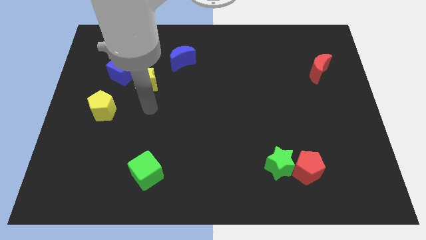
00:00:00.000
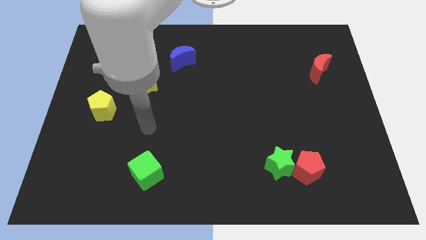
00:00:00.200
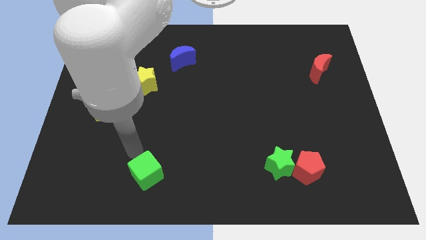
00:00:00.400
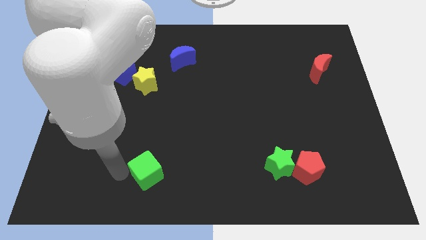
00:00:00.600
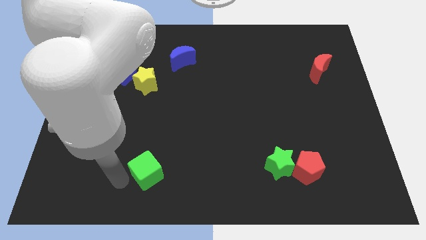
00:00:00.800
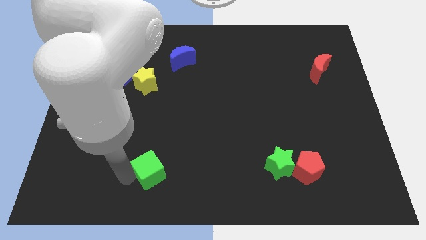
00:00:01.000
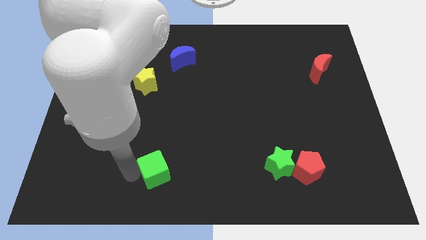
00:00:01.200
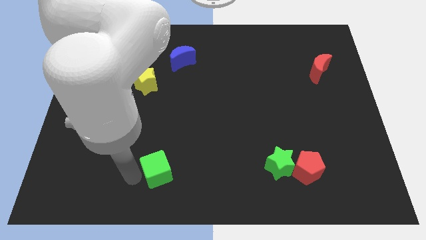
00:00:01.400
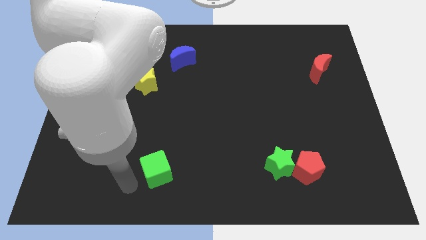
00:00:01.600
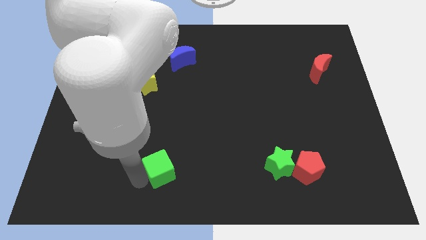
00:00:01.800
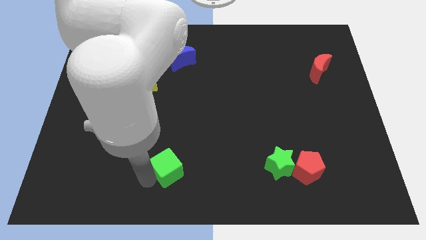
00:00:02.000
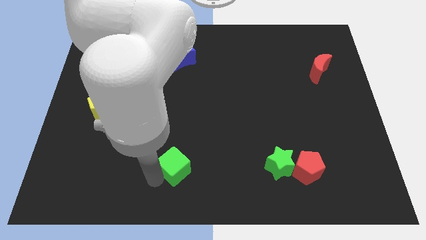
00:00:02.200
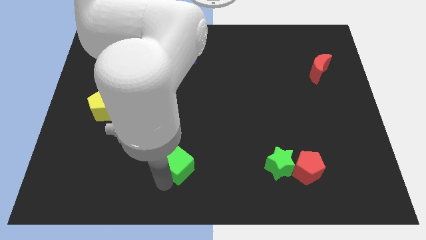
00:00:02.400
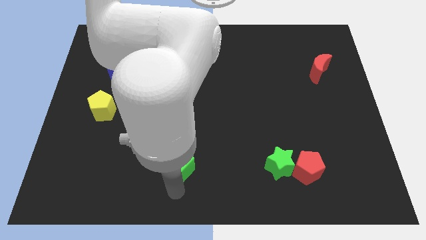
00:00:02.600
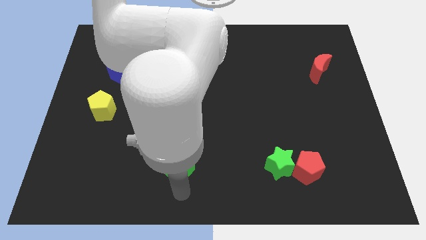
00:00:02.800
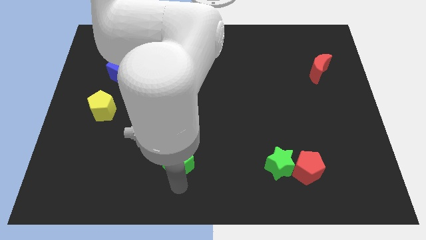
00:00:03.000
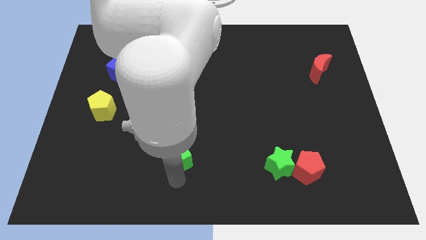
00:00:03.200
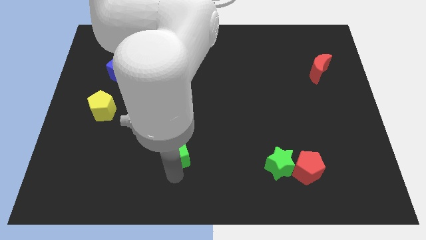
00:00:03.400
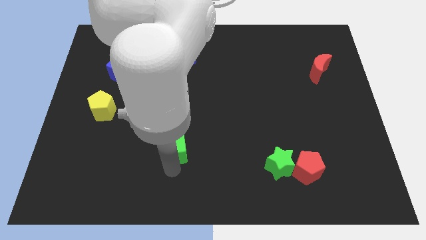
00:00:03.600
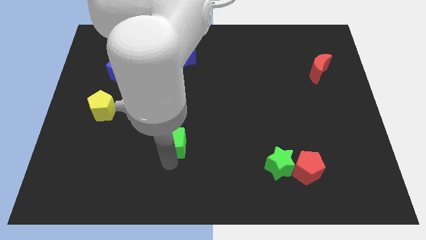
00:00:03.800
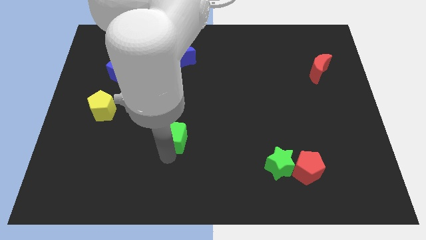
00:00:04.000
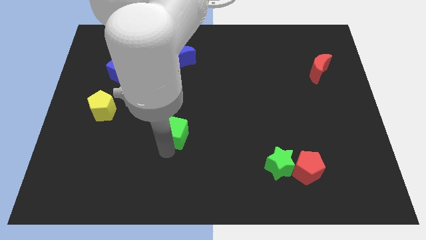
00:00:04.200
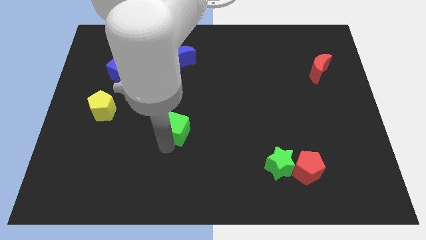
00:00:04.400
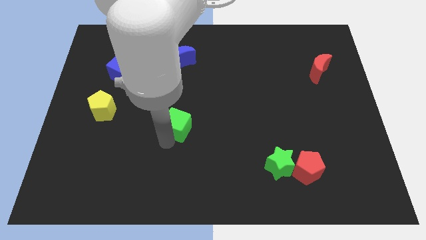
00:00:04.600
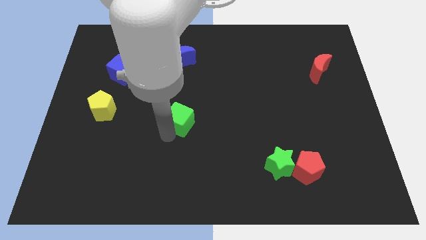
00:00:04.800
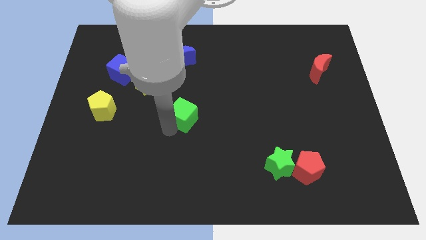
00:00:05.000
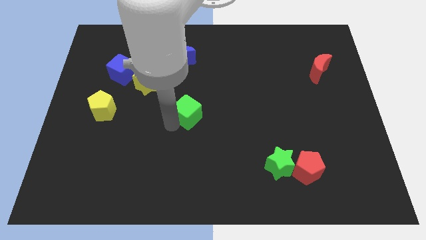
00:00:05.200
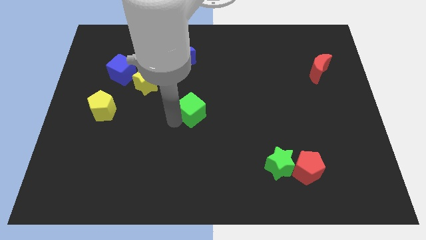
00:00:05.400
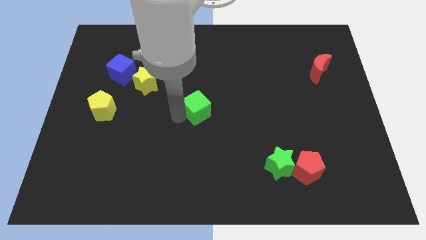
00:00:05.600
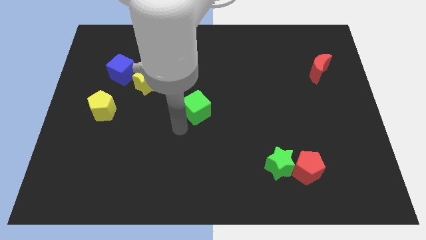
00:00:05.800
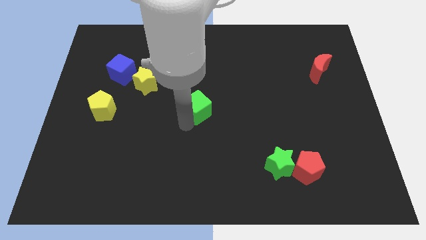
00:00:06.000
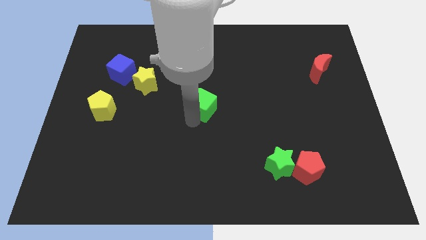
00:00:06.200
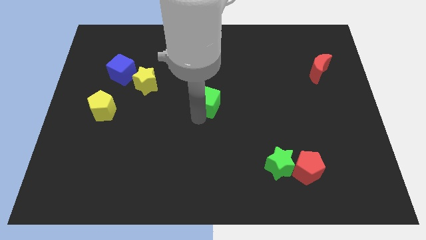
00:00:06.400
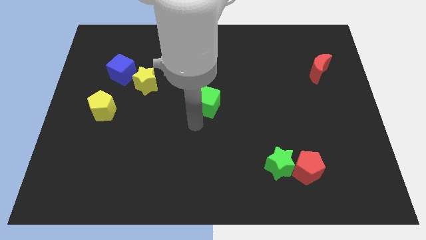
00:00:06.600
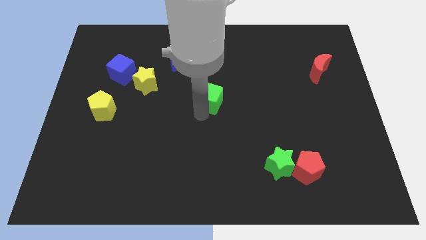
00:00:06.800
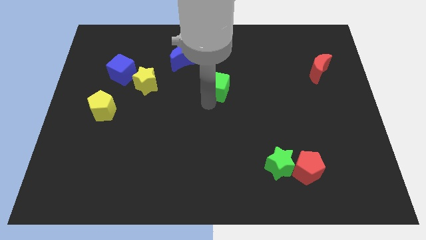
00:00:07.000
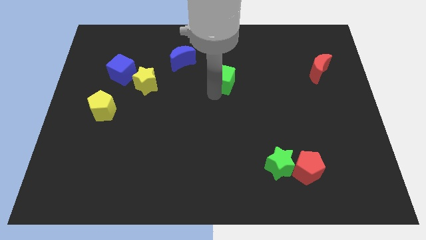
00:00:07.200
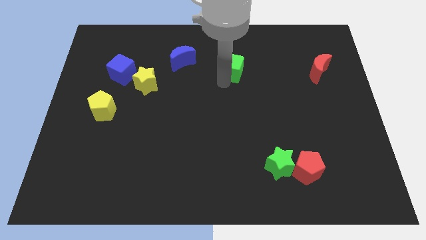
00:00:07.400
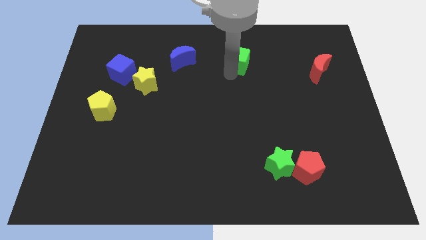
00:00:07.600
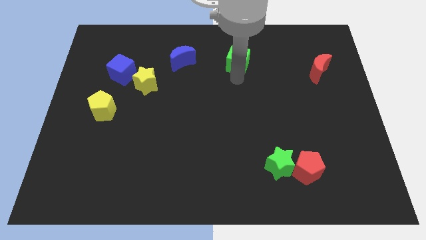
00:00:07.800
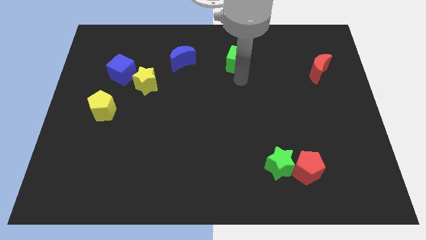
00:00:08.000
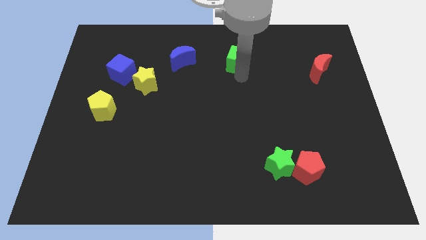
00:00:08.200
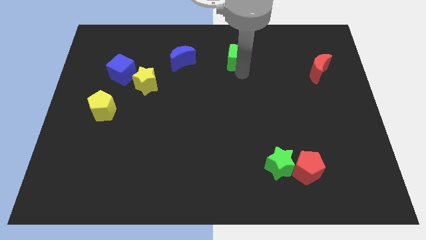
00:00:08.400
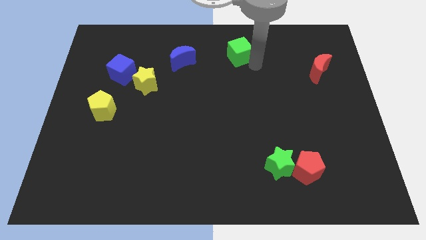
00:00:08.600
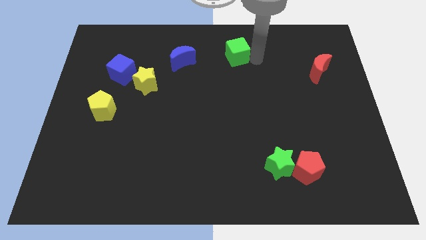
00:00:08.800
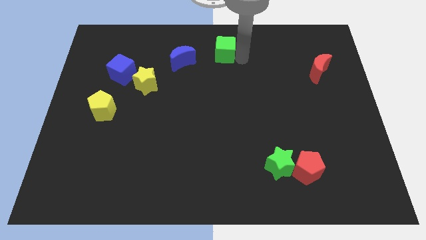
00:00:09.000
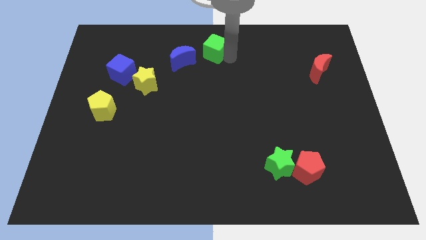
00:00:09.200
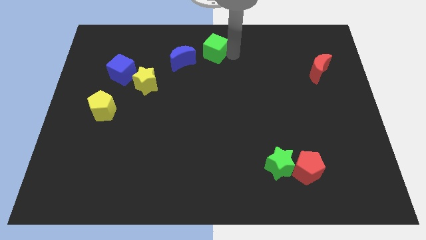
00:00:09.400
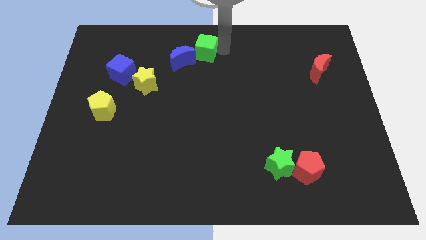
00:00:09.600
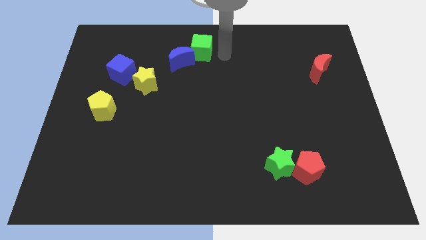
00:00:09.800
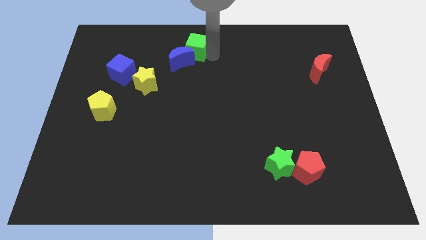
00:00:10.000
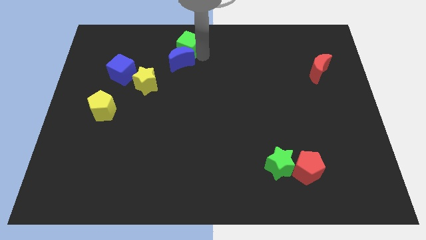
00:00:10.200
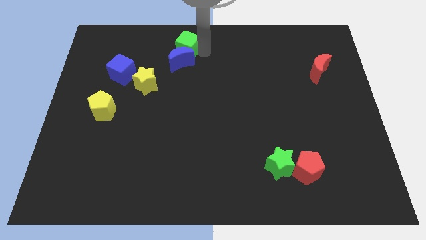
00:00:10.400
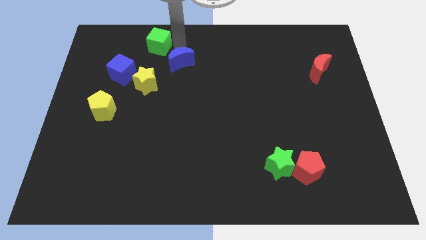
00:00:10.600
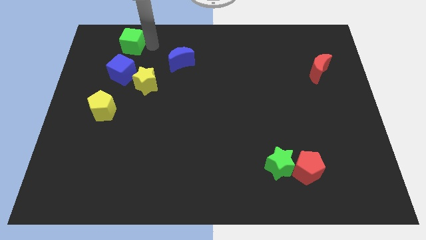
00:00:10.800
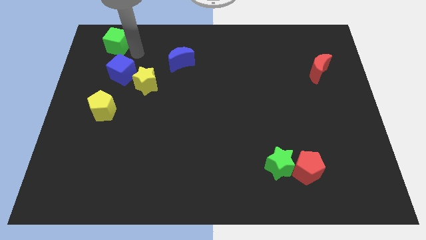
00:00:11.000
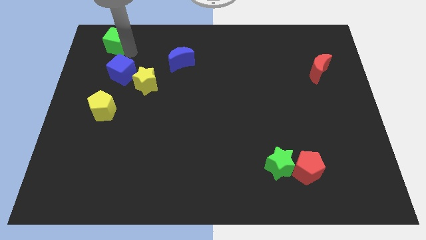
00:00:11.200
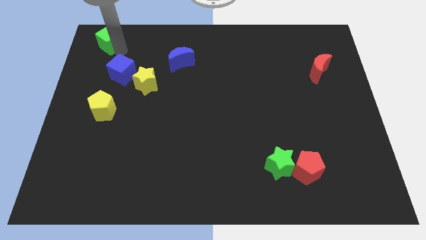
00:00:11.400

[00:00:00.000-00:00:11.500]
push the green cube to the top left

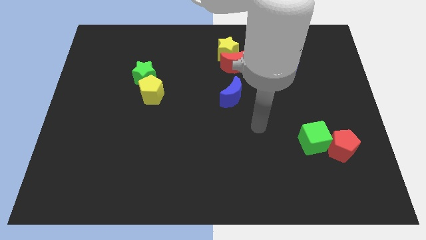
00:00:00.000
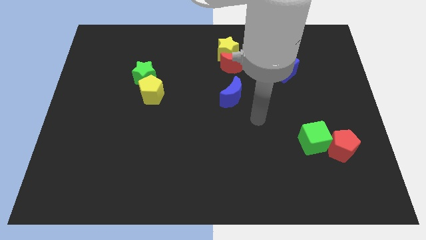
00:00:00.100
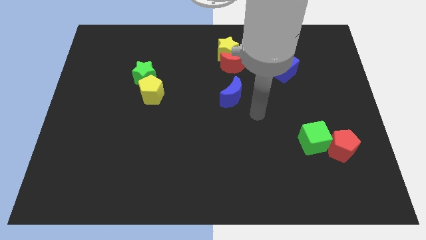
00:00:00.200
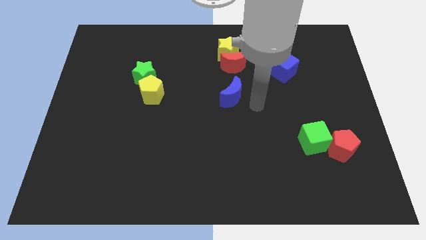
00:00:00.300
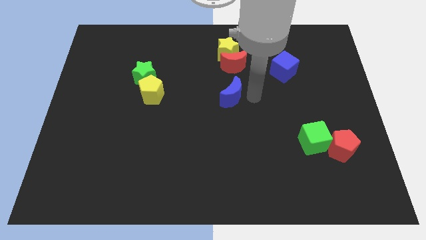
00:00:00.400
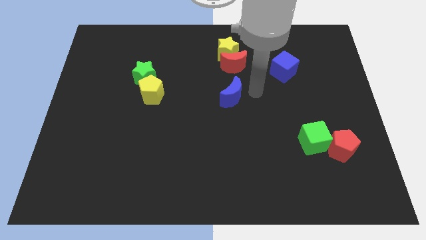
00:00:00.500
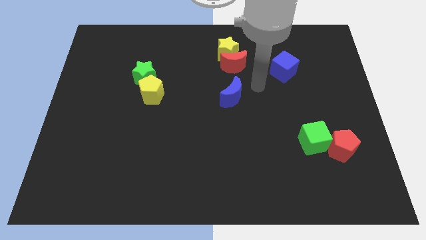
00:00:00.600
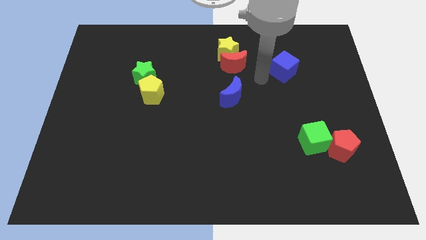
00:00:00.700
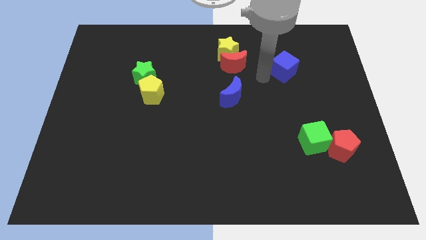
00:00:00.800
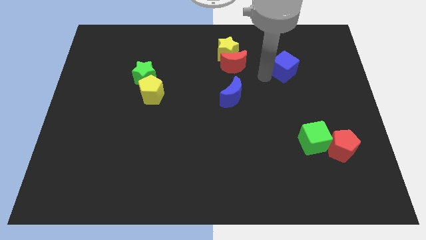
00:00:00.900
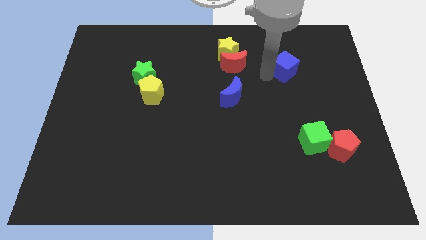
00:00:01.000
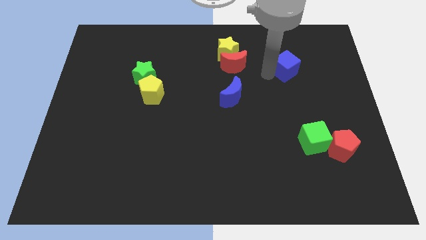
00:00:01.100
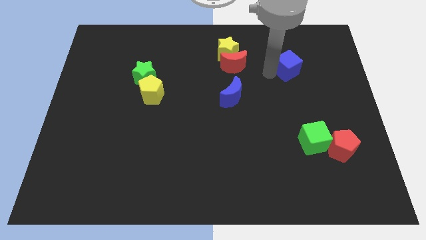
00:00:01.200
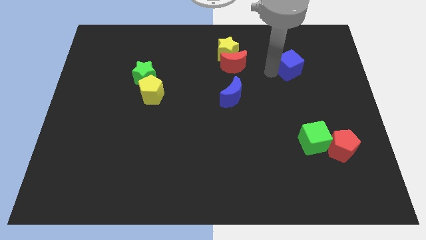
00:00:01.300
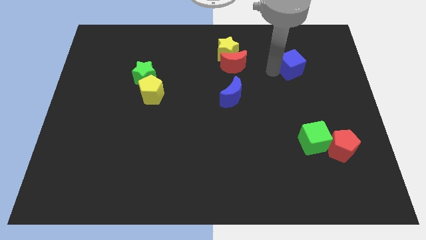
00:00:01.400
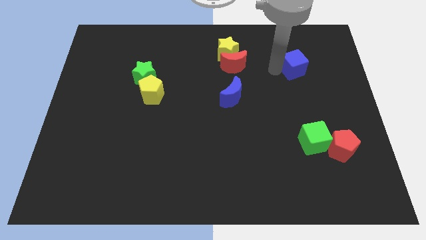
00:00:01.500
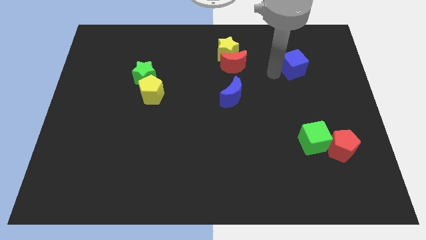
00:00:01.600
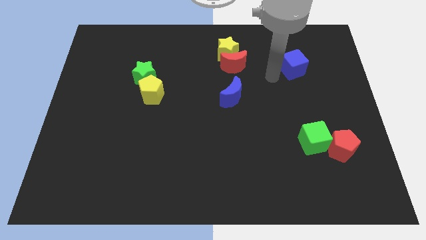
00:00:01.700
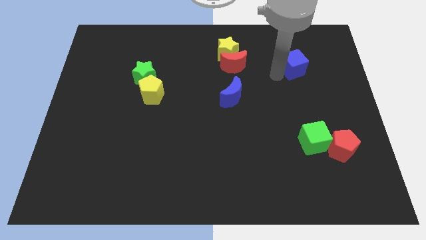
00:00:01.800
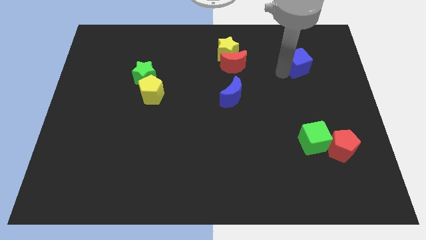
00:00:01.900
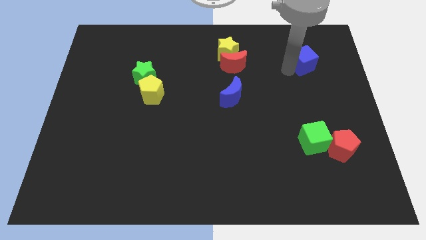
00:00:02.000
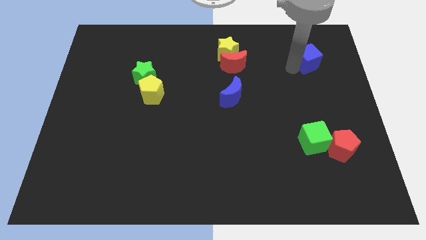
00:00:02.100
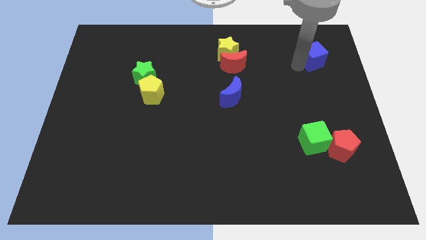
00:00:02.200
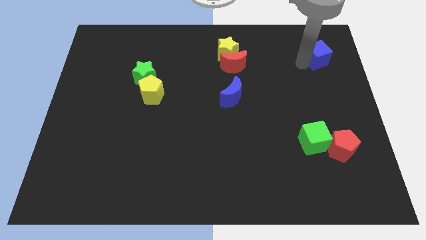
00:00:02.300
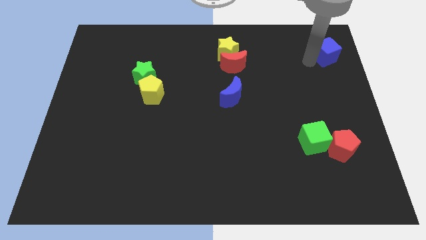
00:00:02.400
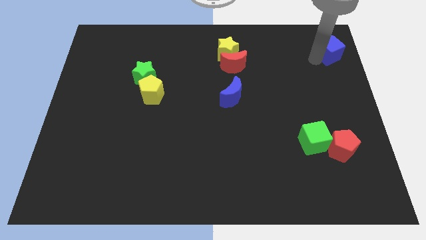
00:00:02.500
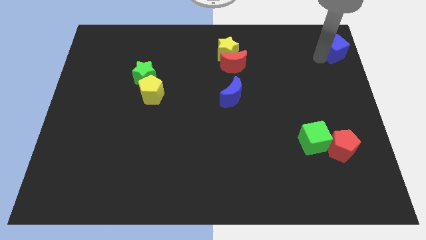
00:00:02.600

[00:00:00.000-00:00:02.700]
put the blue cube to the top right of the board
